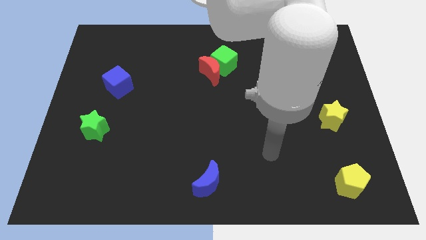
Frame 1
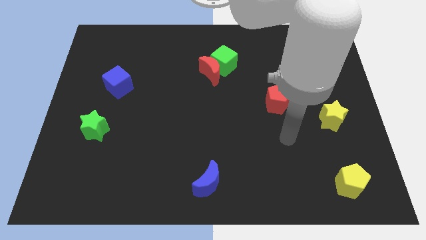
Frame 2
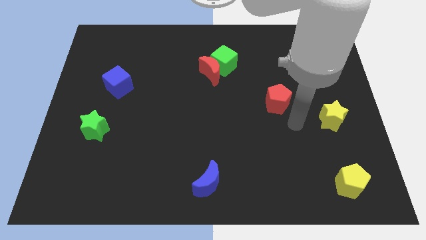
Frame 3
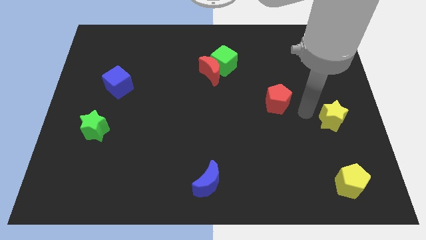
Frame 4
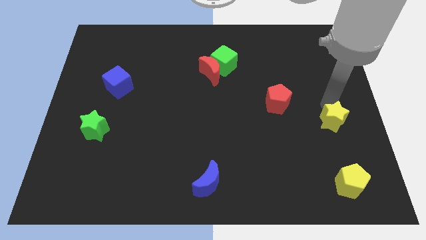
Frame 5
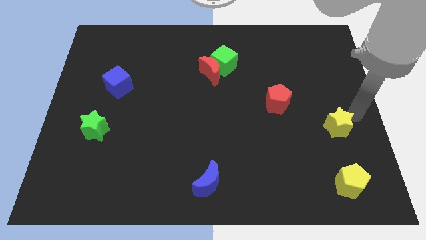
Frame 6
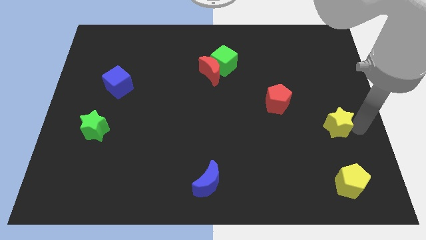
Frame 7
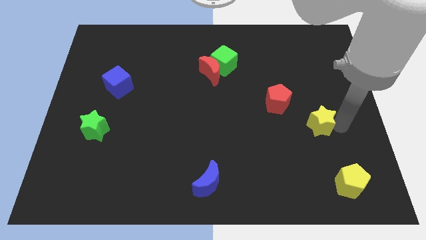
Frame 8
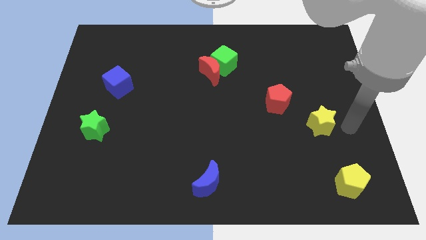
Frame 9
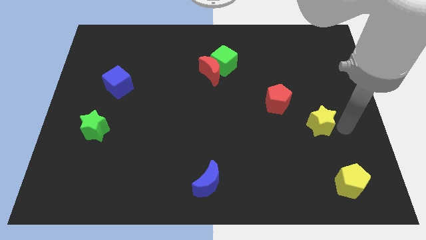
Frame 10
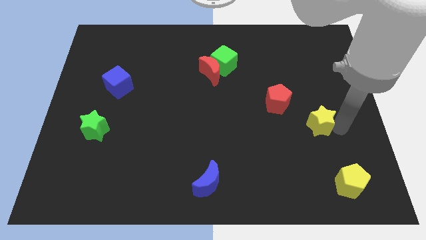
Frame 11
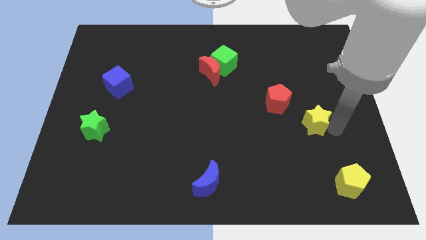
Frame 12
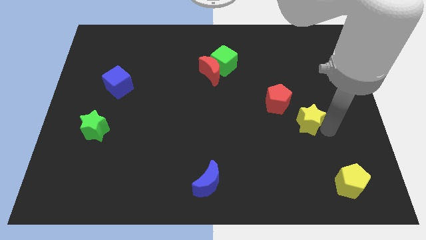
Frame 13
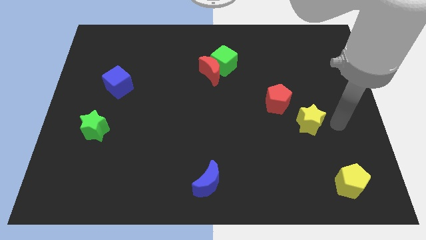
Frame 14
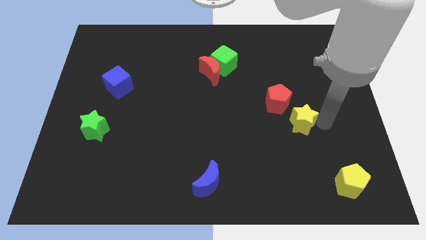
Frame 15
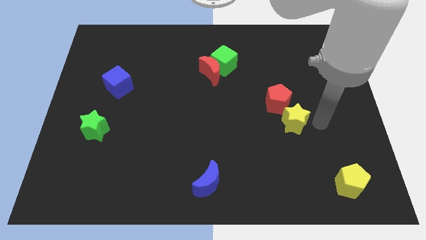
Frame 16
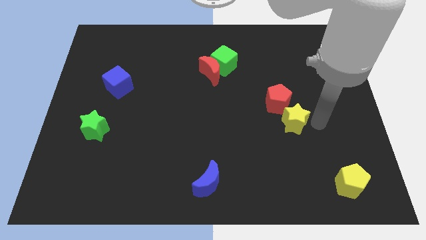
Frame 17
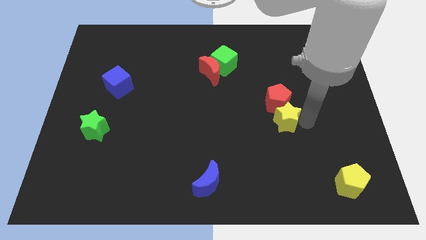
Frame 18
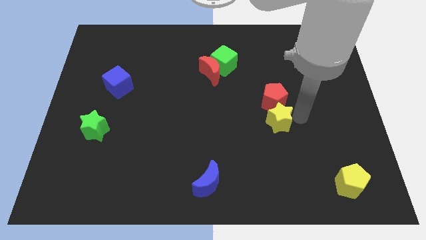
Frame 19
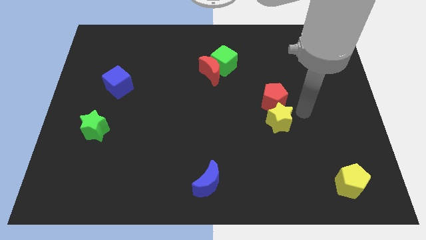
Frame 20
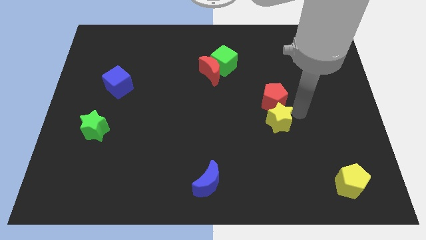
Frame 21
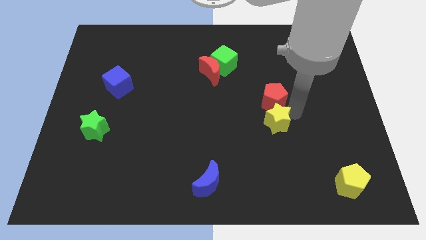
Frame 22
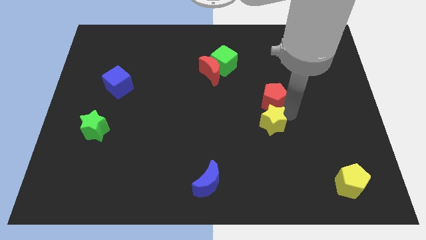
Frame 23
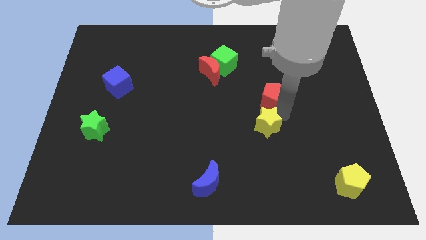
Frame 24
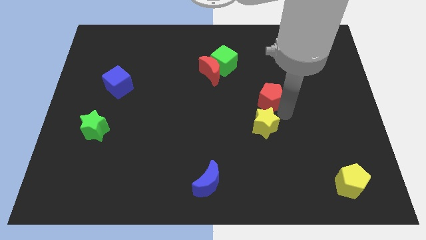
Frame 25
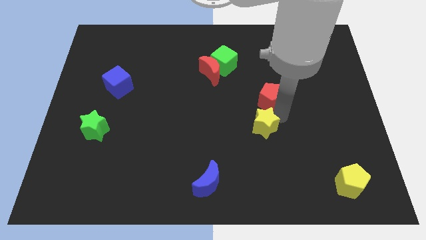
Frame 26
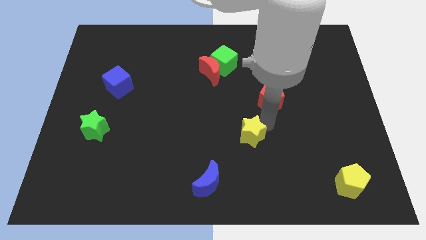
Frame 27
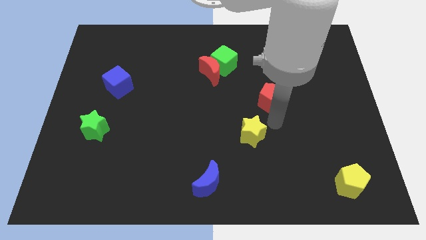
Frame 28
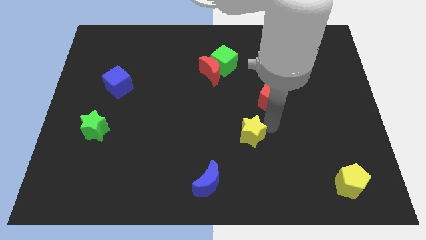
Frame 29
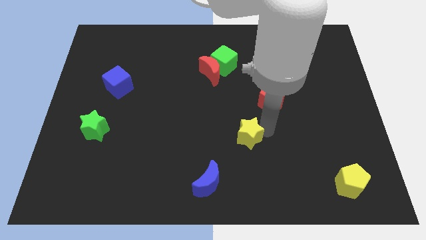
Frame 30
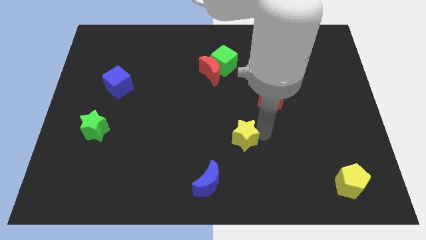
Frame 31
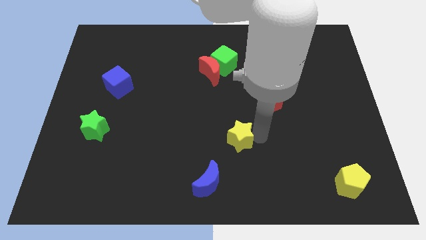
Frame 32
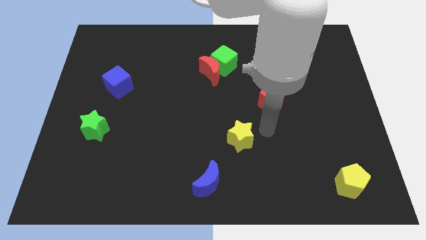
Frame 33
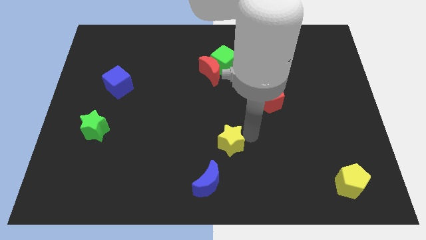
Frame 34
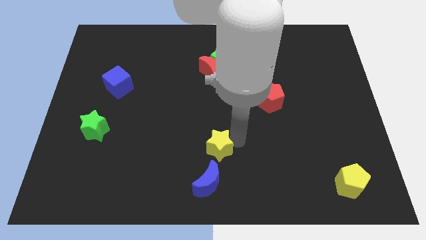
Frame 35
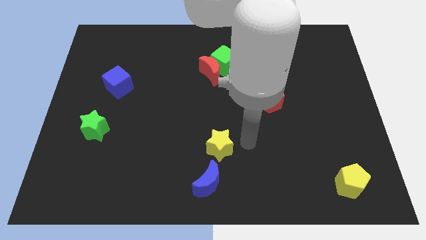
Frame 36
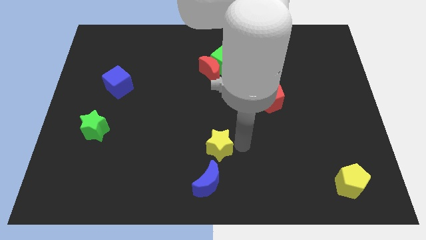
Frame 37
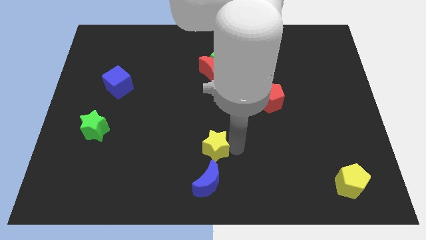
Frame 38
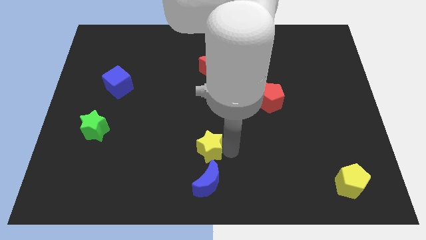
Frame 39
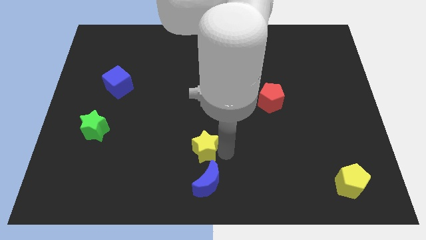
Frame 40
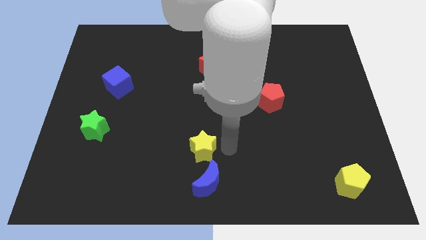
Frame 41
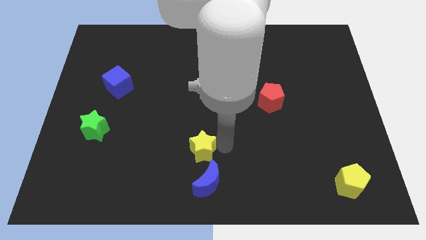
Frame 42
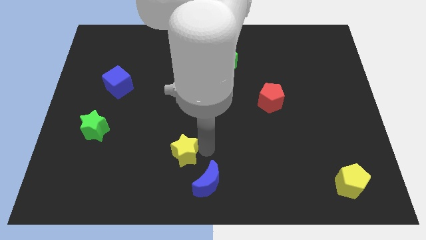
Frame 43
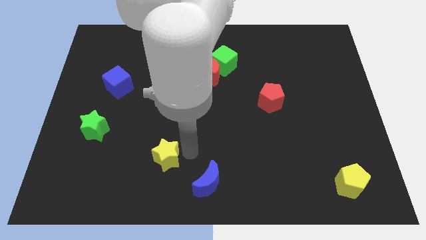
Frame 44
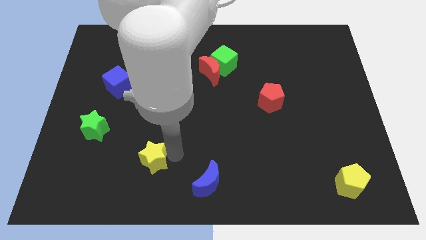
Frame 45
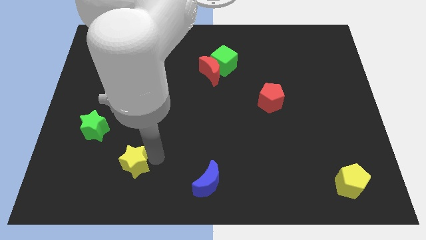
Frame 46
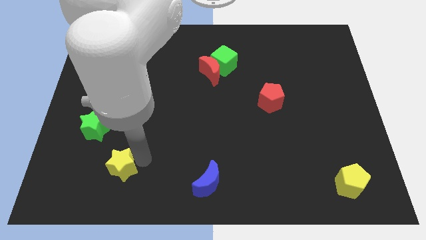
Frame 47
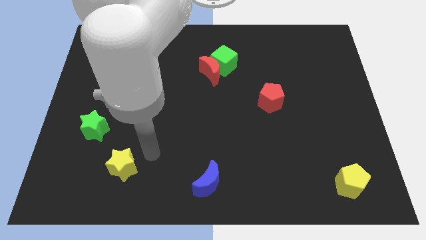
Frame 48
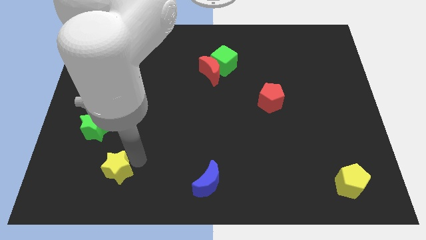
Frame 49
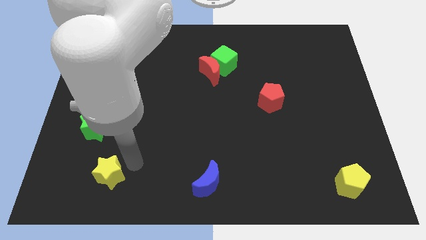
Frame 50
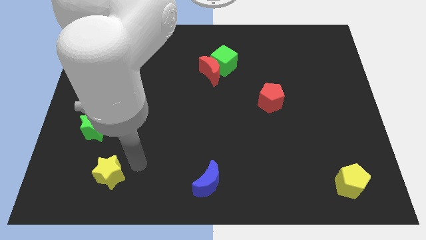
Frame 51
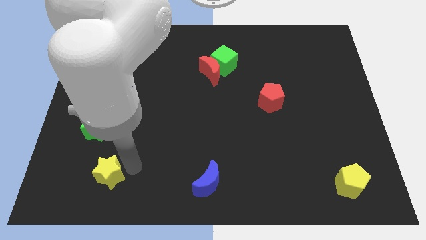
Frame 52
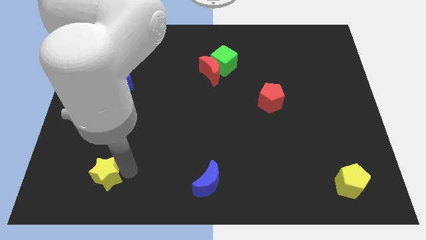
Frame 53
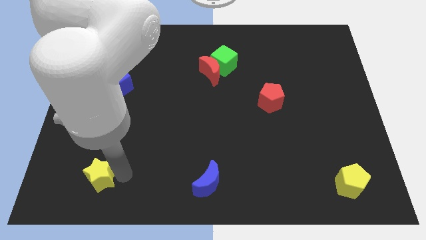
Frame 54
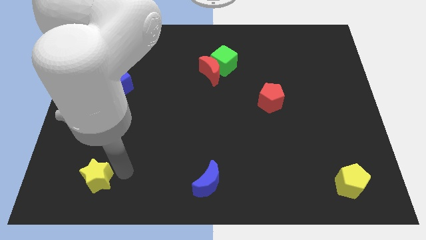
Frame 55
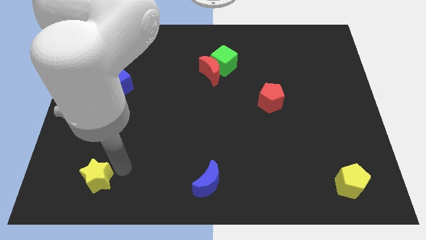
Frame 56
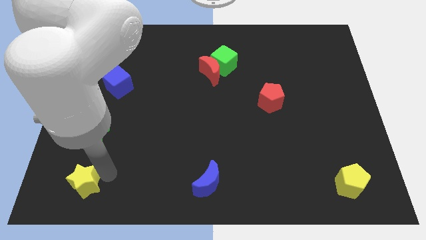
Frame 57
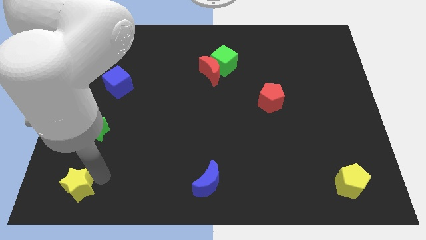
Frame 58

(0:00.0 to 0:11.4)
put the yellow star to the bottom left corner

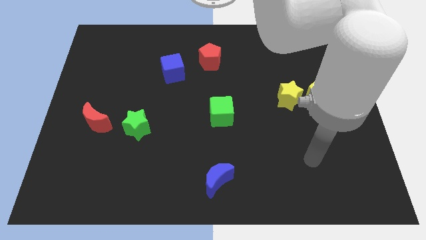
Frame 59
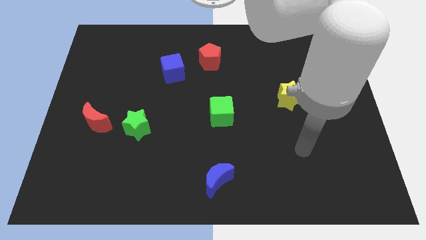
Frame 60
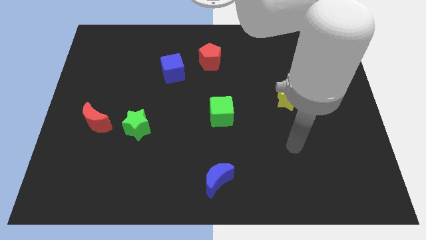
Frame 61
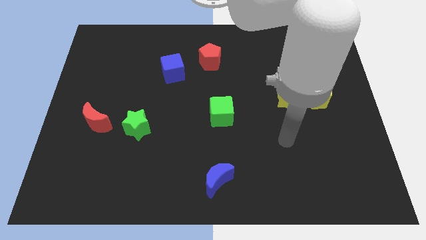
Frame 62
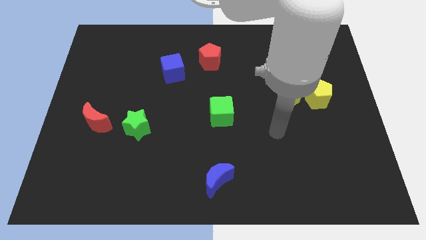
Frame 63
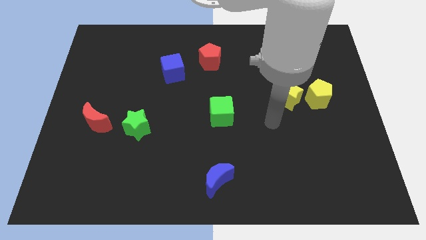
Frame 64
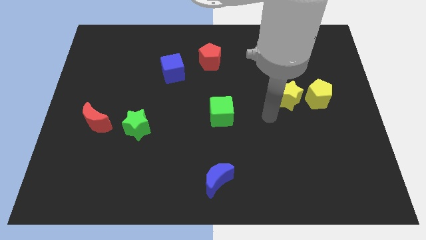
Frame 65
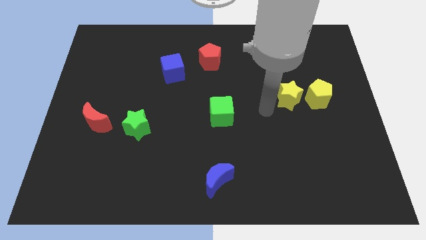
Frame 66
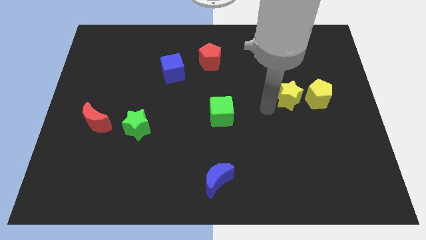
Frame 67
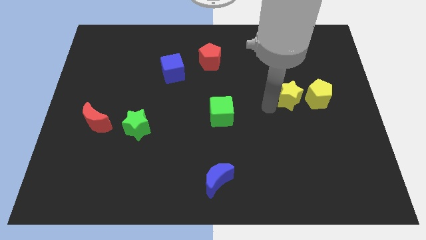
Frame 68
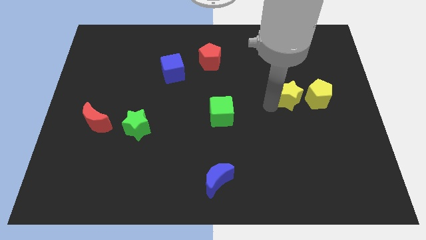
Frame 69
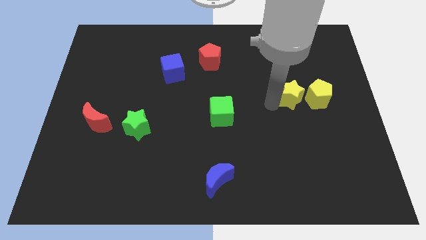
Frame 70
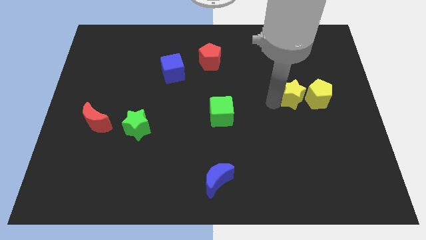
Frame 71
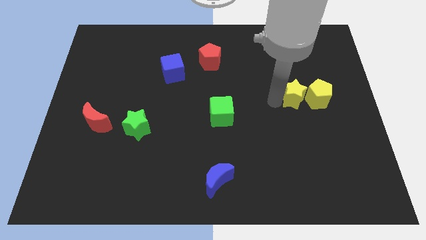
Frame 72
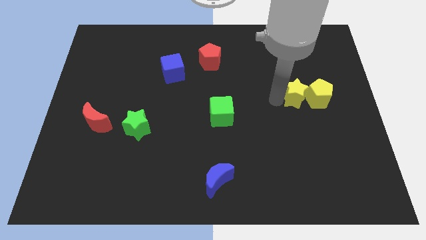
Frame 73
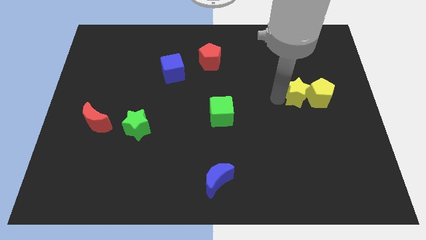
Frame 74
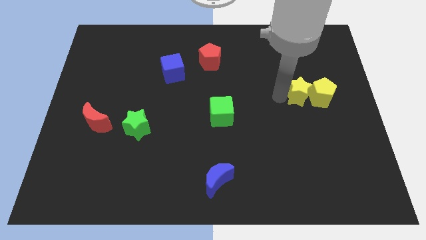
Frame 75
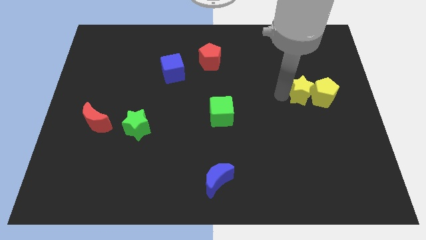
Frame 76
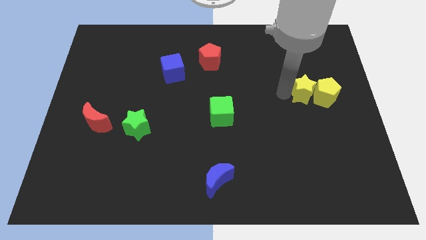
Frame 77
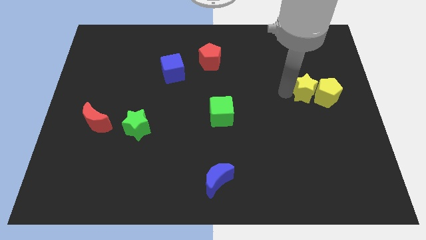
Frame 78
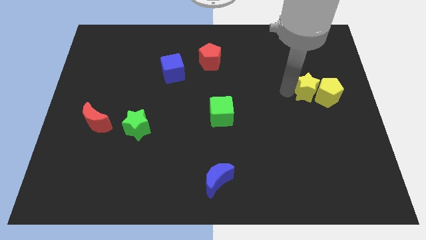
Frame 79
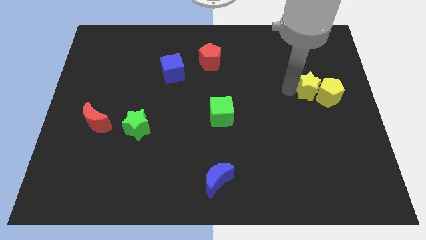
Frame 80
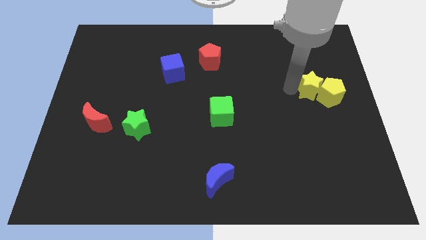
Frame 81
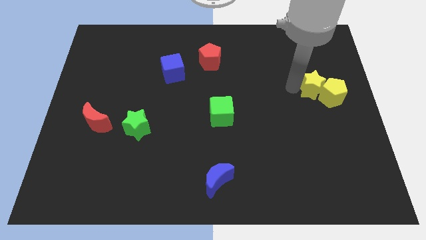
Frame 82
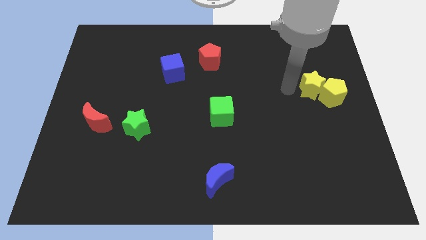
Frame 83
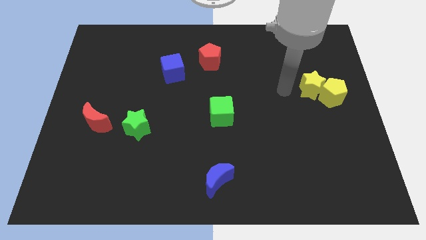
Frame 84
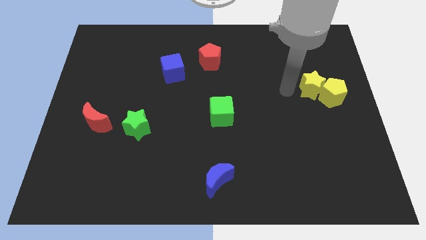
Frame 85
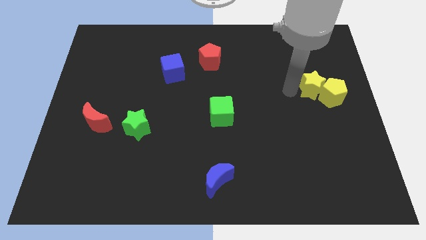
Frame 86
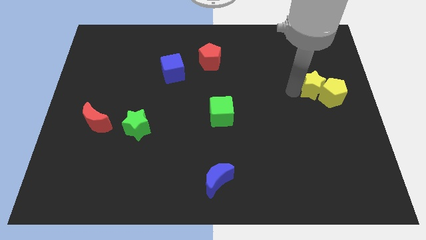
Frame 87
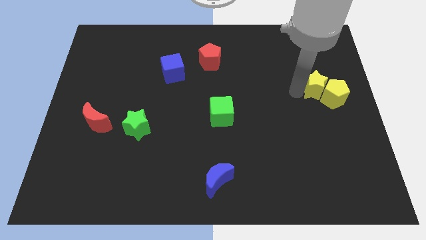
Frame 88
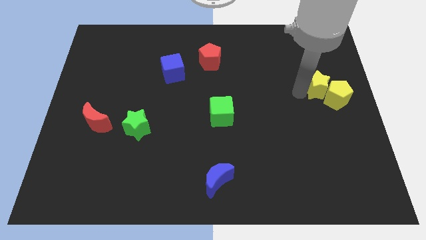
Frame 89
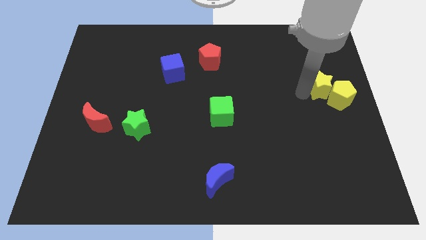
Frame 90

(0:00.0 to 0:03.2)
put the yellow star to the right side
